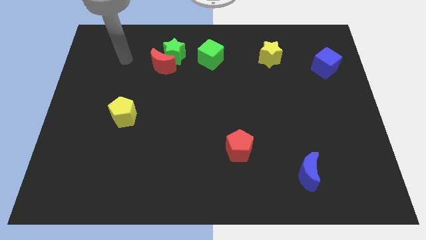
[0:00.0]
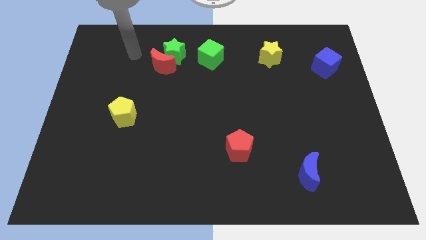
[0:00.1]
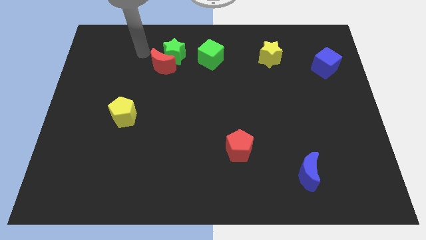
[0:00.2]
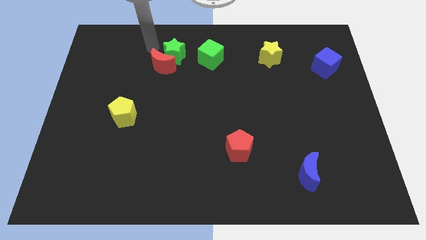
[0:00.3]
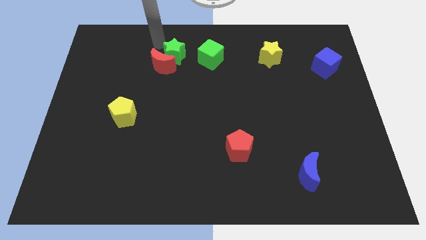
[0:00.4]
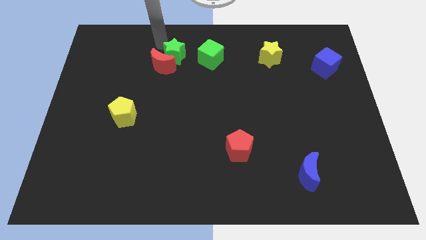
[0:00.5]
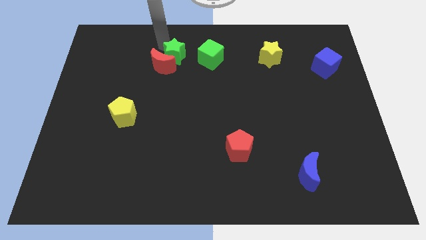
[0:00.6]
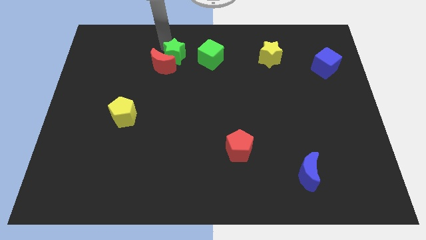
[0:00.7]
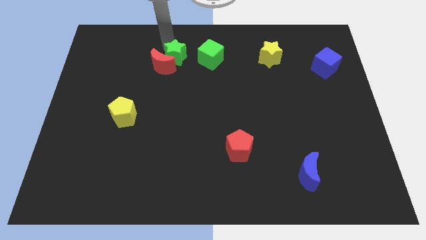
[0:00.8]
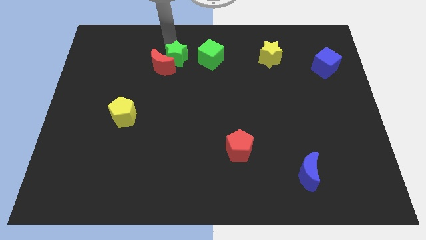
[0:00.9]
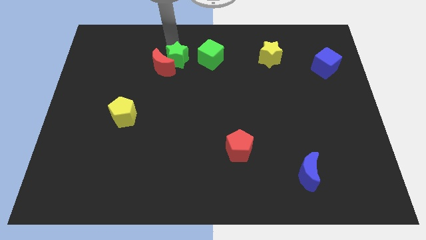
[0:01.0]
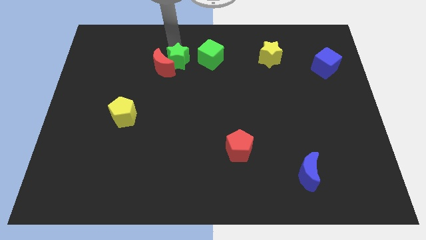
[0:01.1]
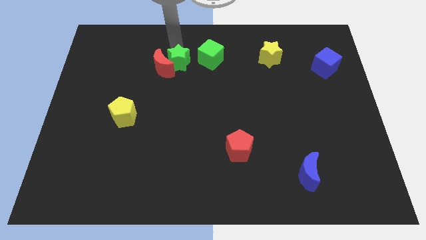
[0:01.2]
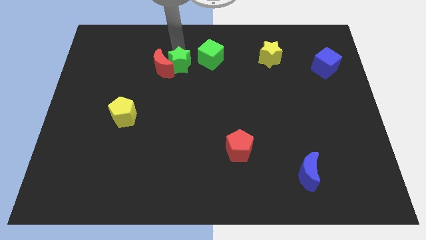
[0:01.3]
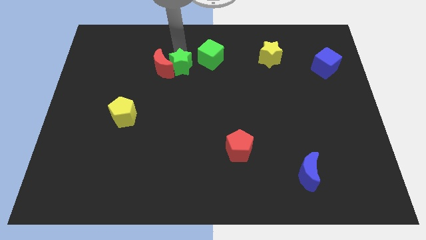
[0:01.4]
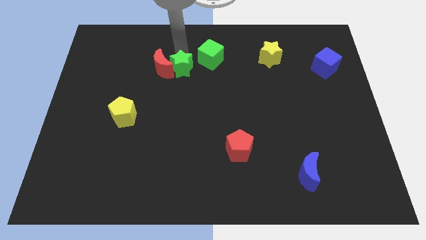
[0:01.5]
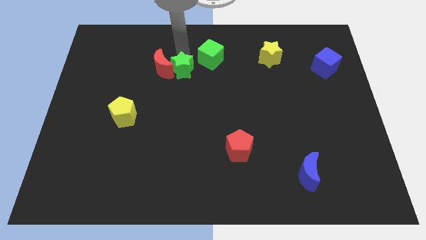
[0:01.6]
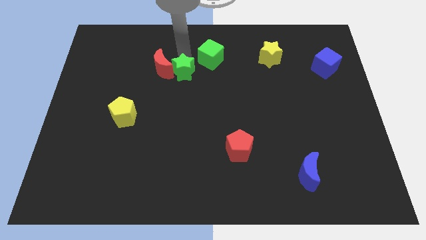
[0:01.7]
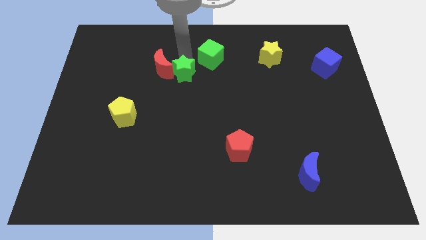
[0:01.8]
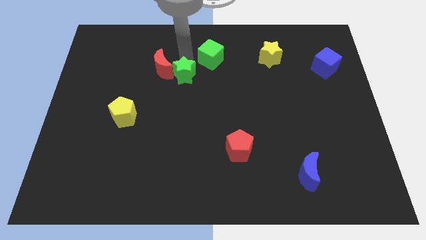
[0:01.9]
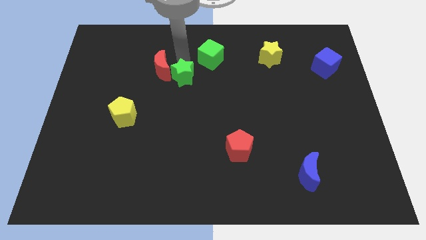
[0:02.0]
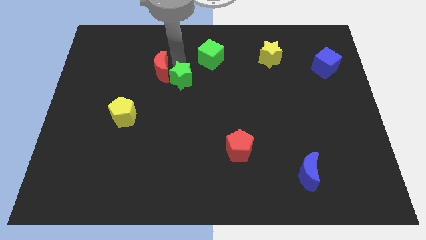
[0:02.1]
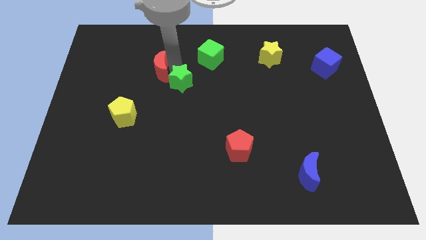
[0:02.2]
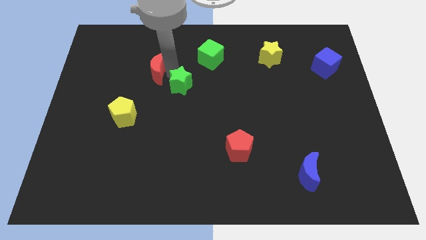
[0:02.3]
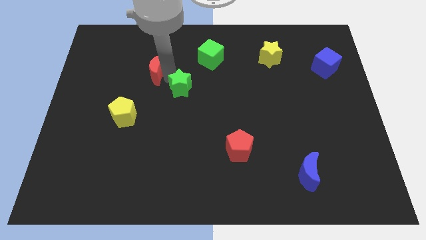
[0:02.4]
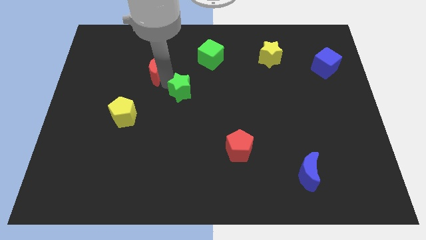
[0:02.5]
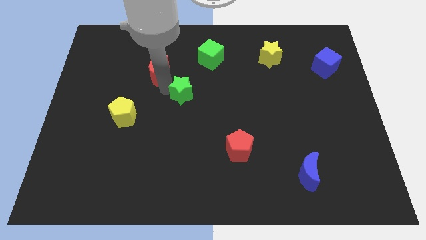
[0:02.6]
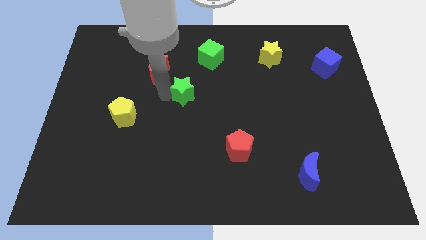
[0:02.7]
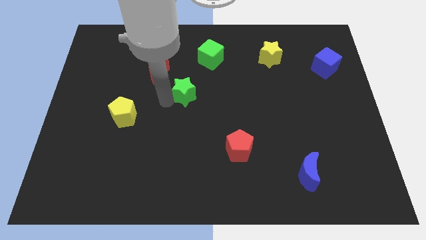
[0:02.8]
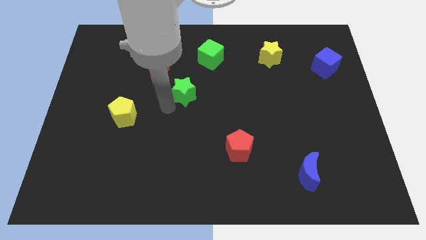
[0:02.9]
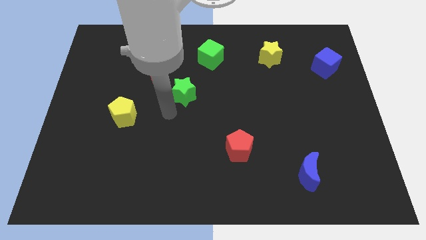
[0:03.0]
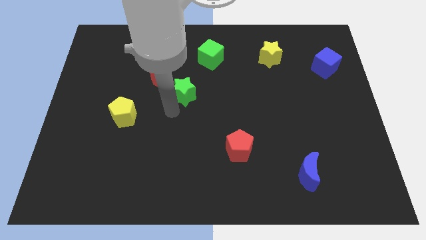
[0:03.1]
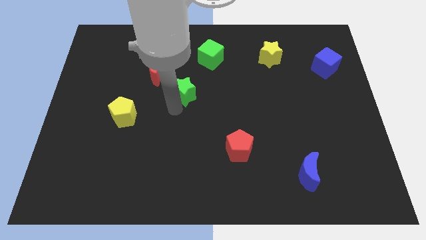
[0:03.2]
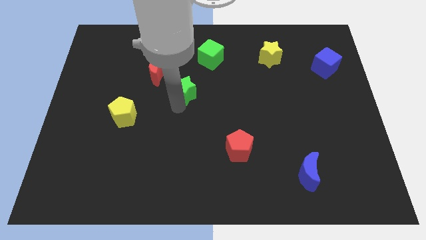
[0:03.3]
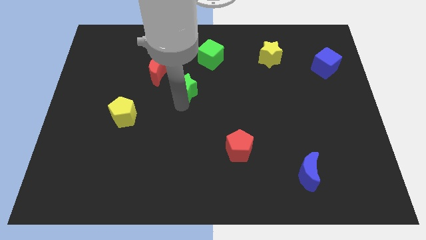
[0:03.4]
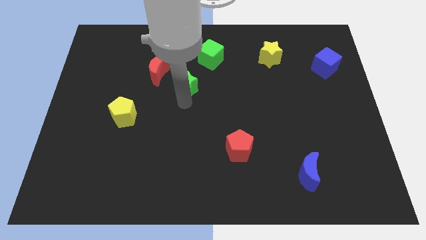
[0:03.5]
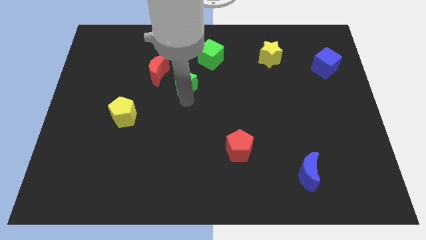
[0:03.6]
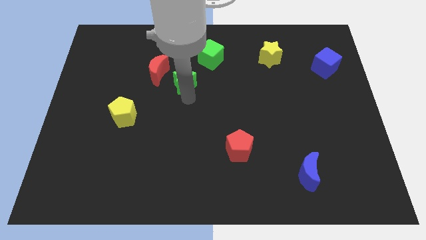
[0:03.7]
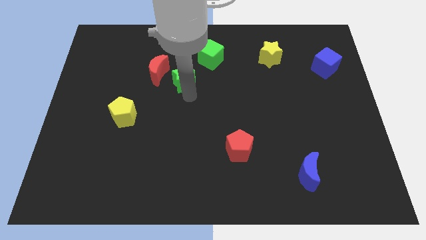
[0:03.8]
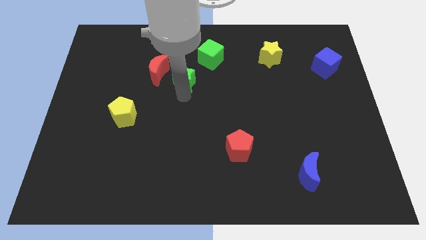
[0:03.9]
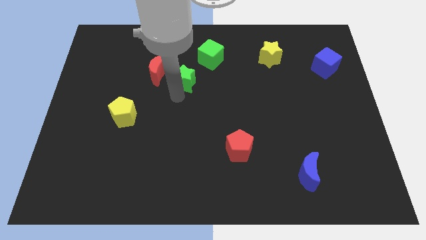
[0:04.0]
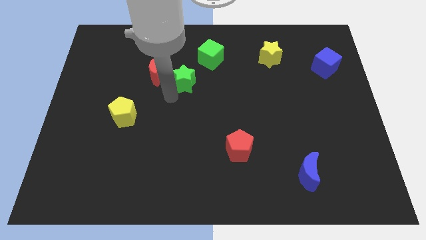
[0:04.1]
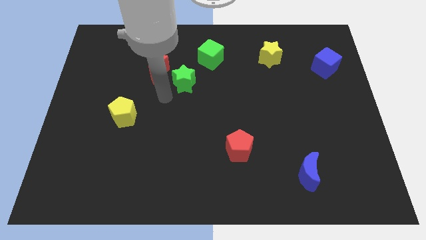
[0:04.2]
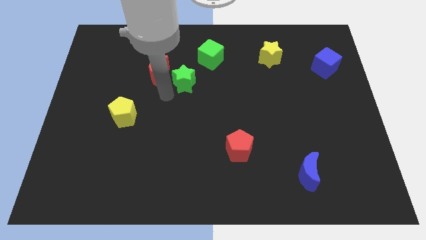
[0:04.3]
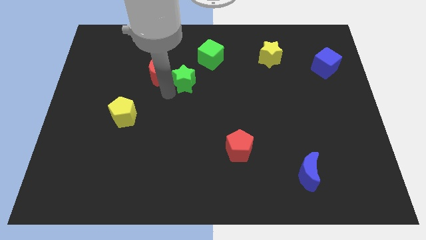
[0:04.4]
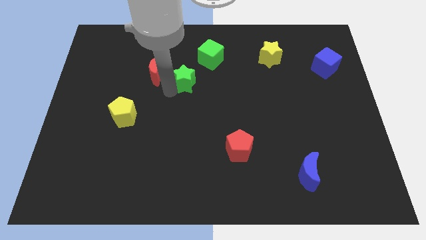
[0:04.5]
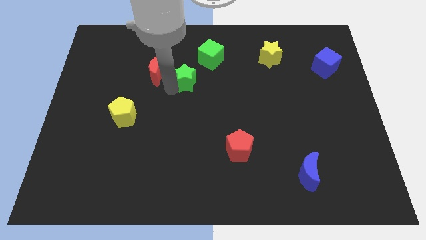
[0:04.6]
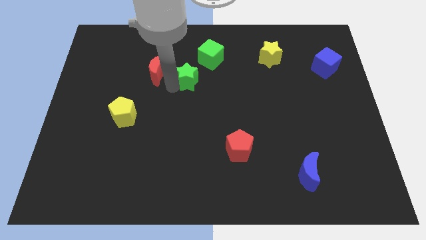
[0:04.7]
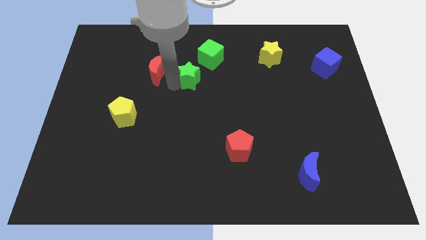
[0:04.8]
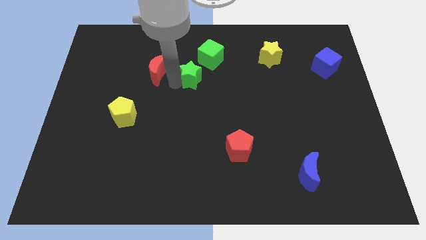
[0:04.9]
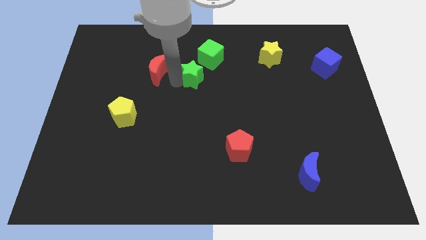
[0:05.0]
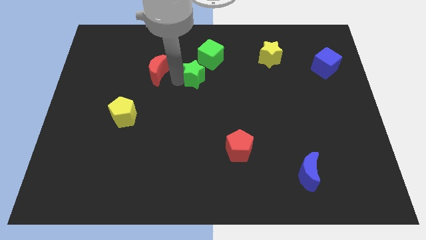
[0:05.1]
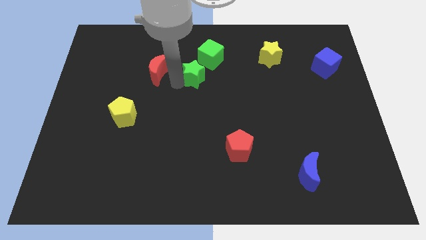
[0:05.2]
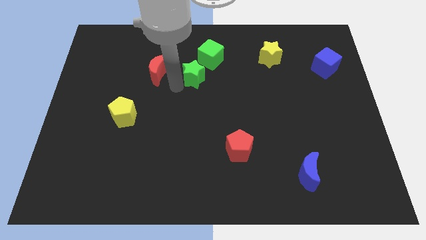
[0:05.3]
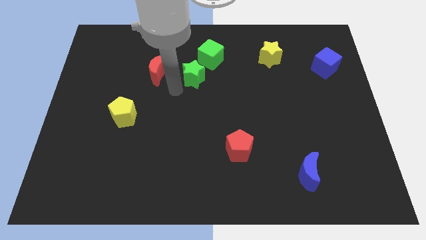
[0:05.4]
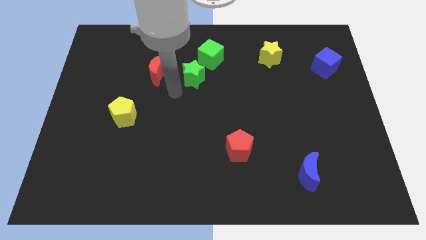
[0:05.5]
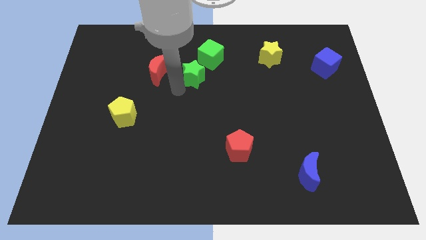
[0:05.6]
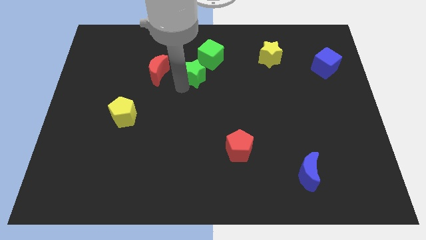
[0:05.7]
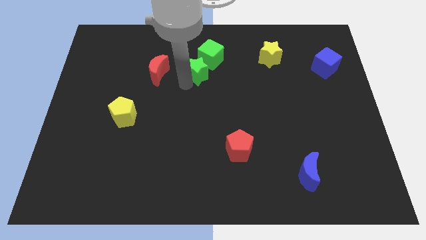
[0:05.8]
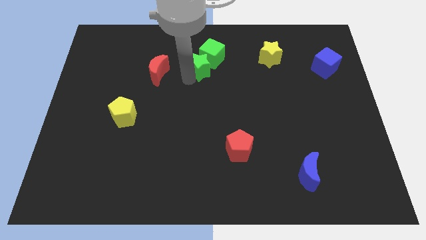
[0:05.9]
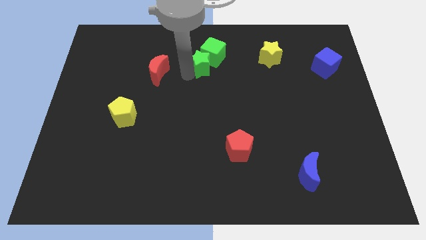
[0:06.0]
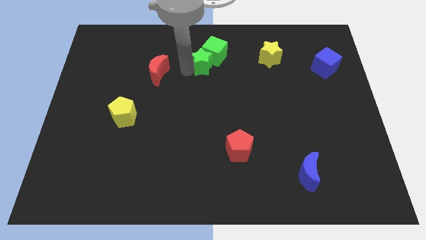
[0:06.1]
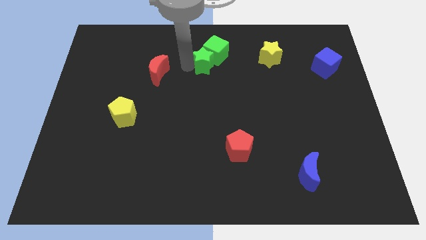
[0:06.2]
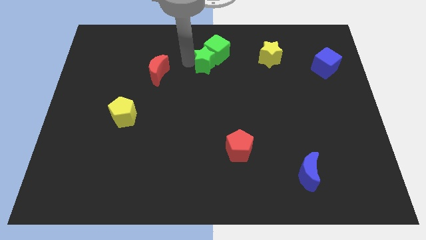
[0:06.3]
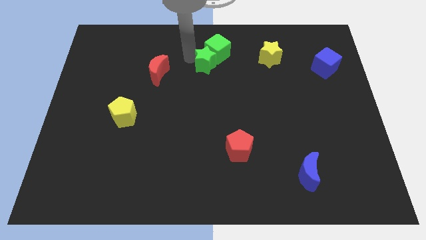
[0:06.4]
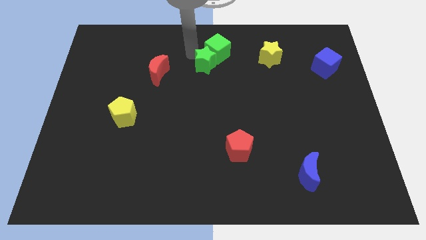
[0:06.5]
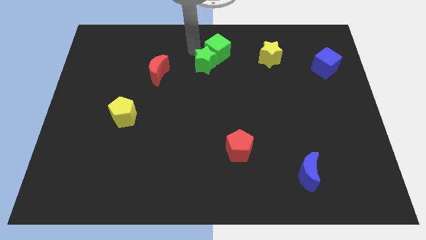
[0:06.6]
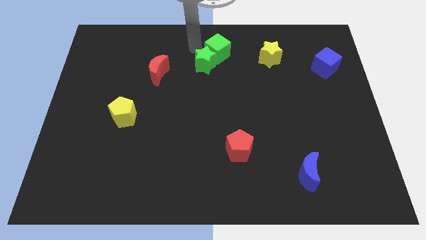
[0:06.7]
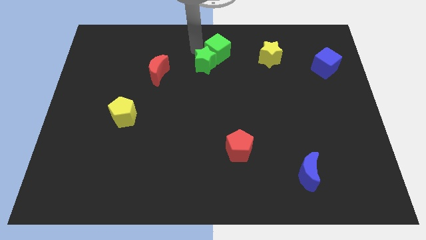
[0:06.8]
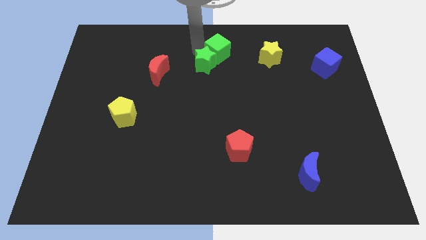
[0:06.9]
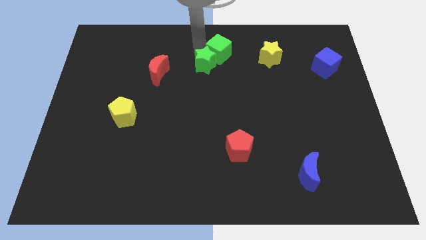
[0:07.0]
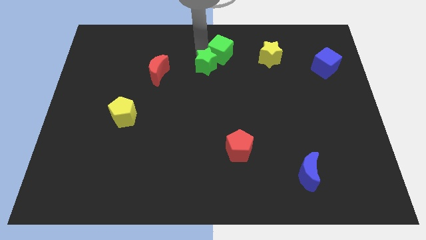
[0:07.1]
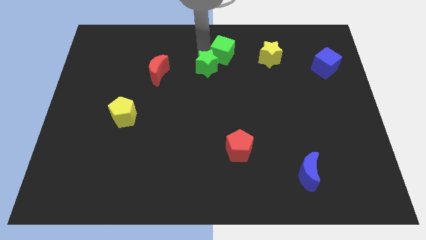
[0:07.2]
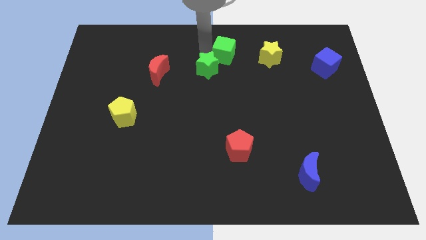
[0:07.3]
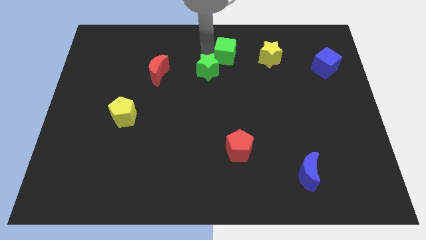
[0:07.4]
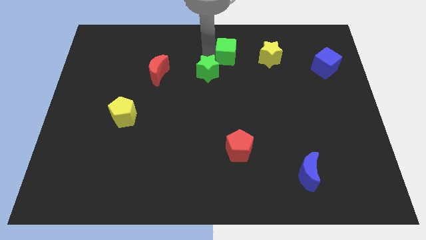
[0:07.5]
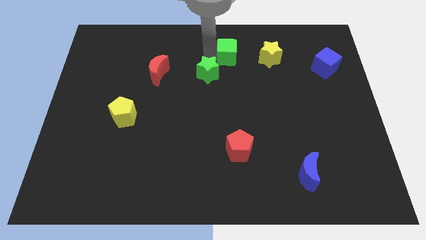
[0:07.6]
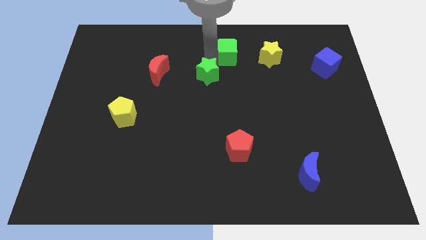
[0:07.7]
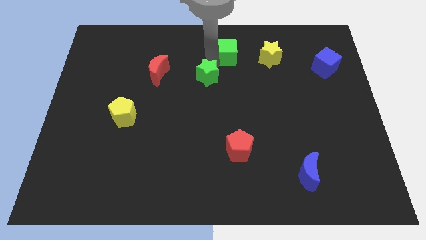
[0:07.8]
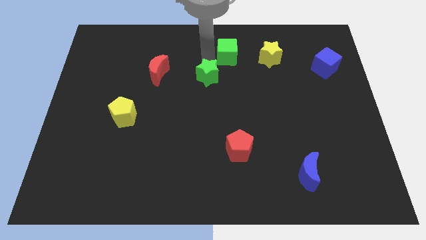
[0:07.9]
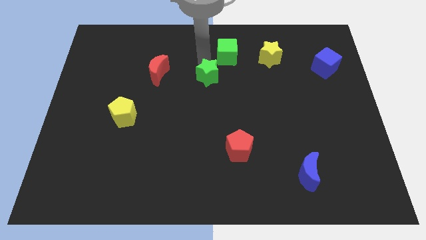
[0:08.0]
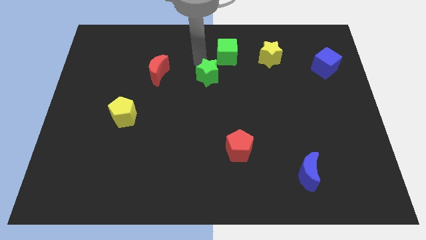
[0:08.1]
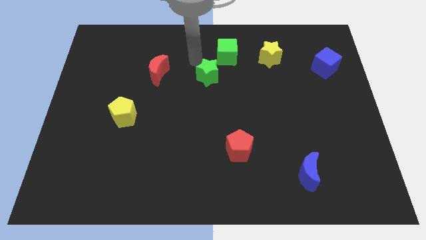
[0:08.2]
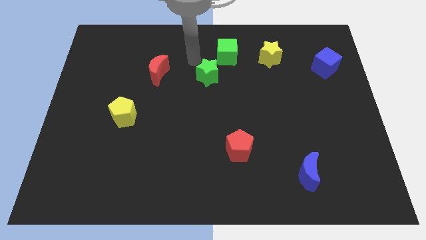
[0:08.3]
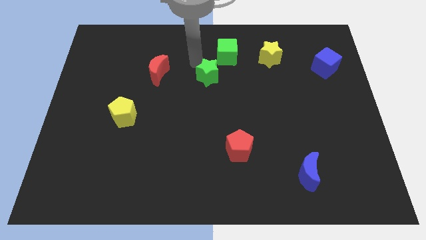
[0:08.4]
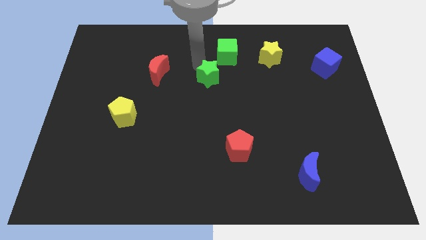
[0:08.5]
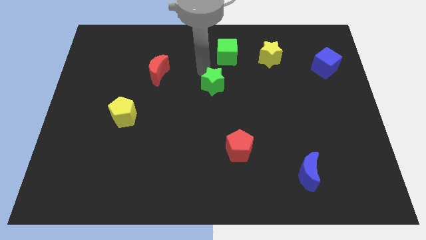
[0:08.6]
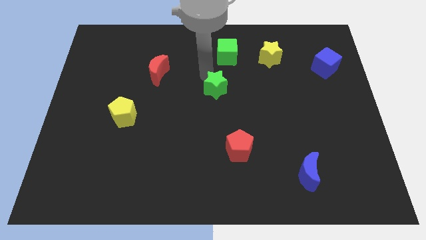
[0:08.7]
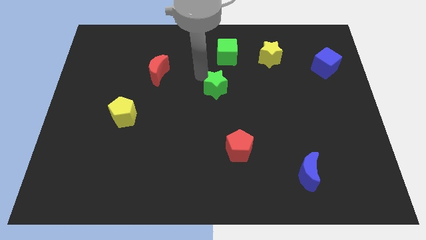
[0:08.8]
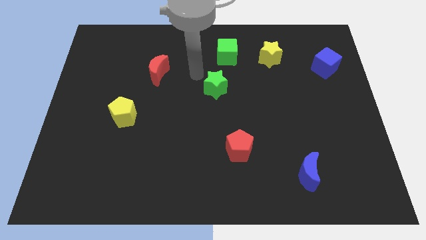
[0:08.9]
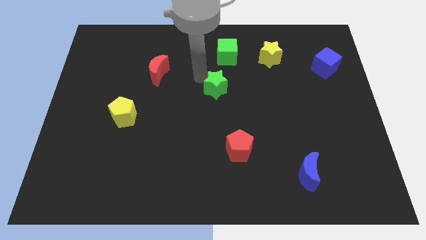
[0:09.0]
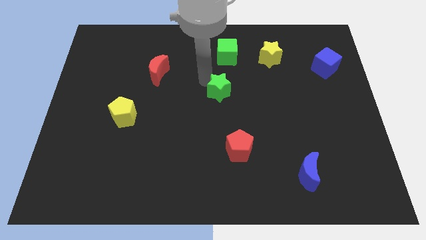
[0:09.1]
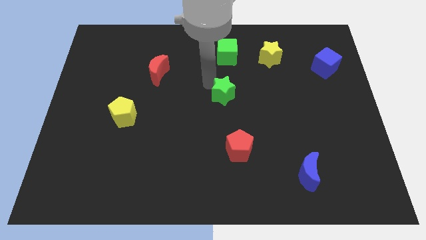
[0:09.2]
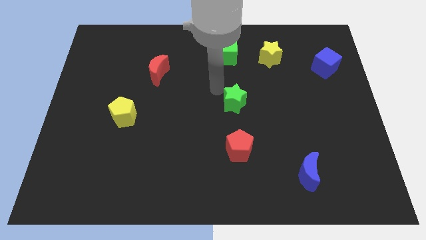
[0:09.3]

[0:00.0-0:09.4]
slide the green star down and right diagonally
